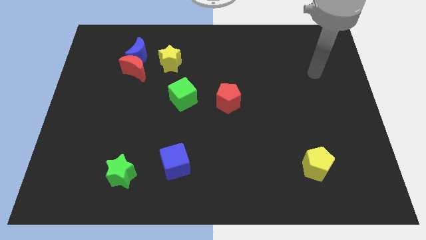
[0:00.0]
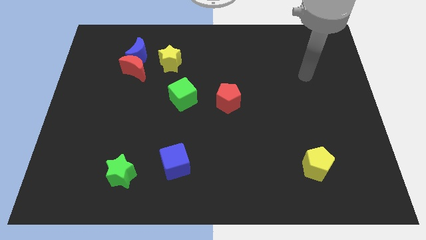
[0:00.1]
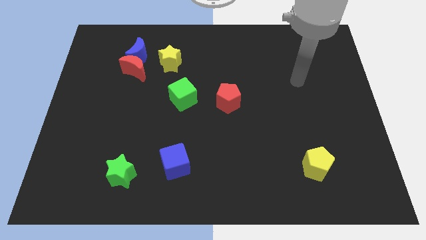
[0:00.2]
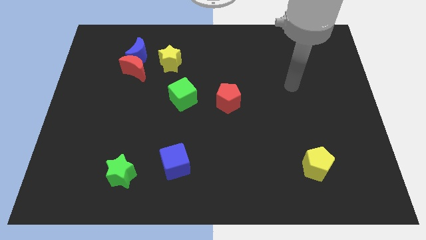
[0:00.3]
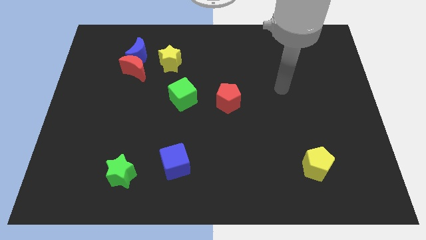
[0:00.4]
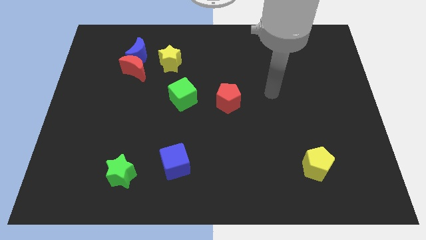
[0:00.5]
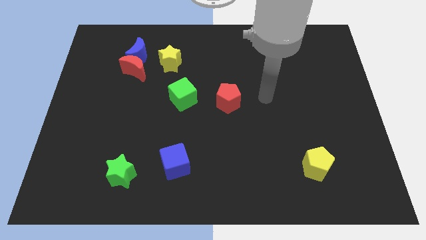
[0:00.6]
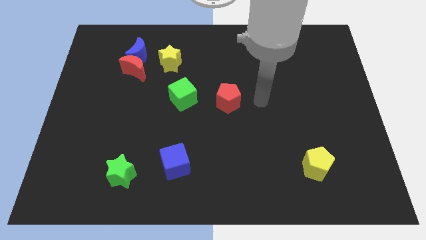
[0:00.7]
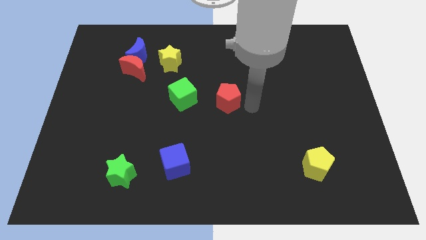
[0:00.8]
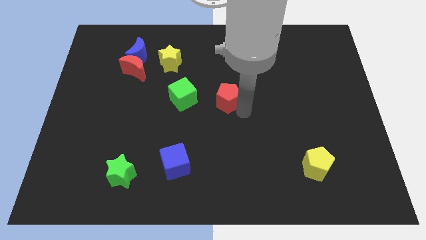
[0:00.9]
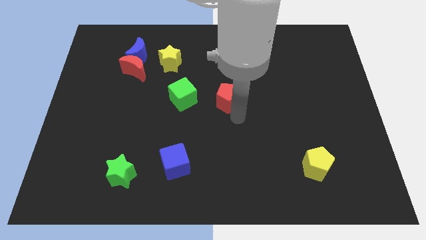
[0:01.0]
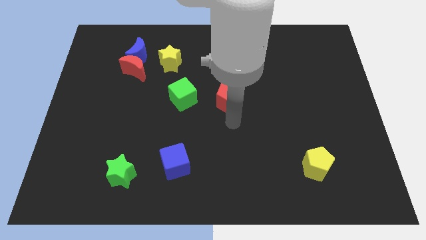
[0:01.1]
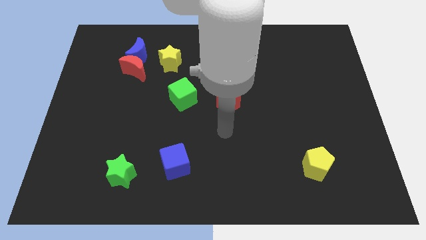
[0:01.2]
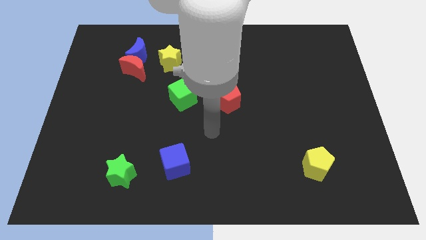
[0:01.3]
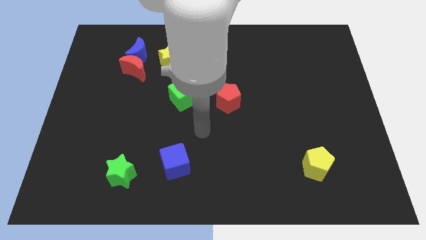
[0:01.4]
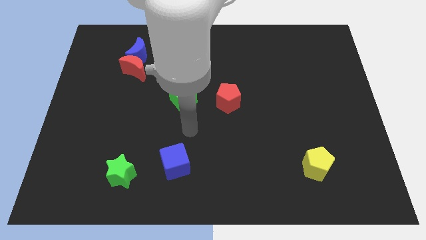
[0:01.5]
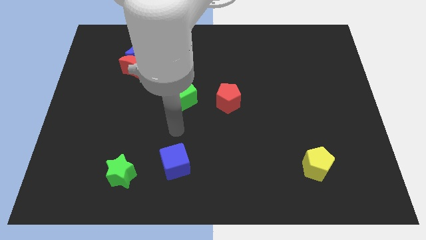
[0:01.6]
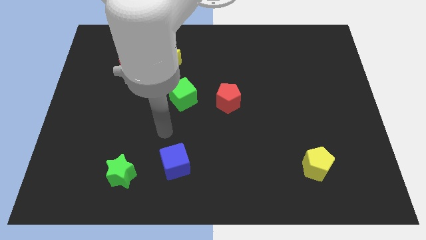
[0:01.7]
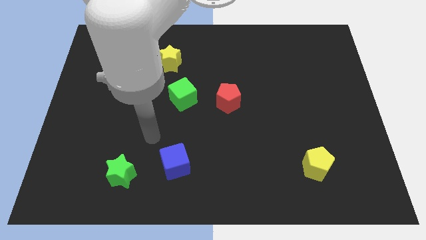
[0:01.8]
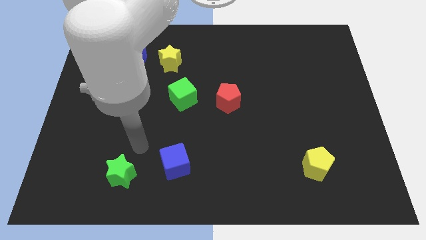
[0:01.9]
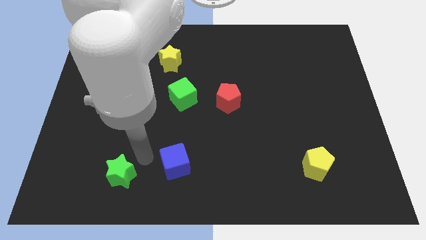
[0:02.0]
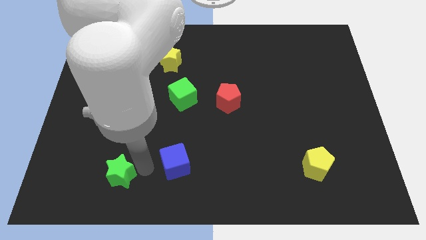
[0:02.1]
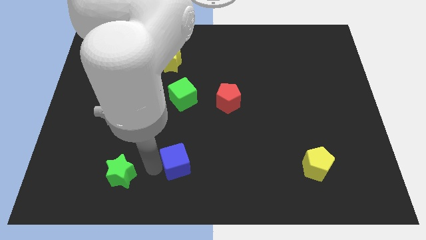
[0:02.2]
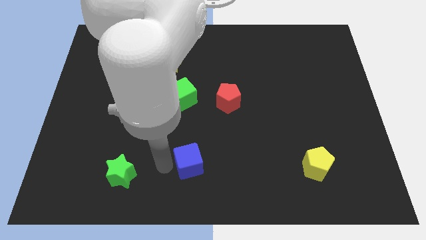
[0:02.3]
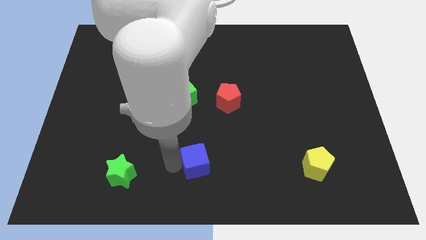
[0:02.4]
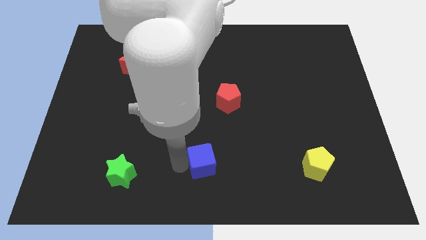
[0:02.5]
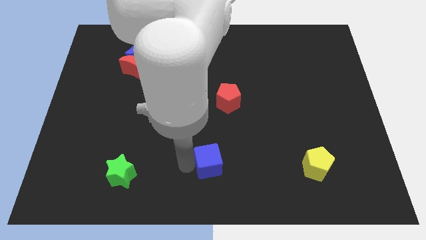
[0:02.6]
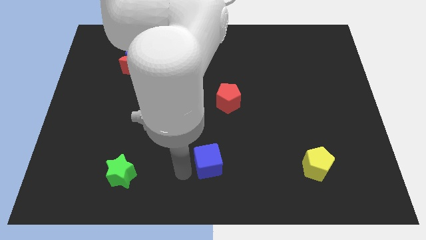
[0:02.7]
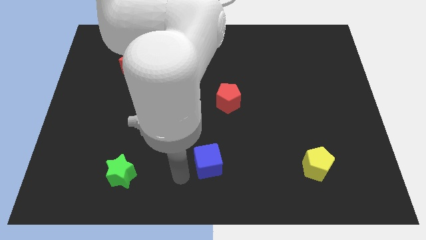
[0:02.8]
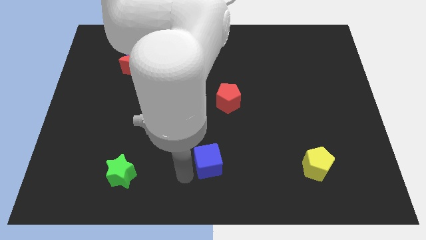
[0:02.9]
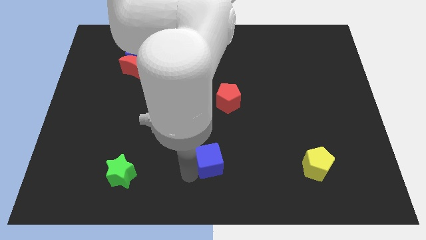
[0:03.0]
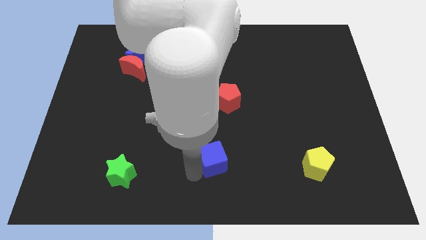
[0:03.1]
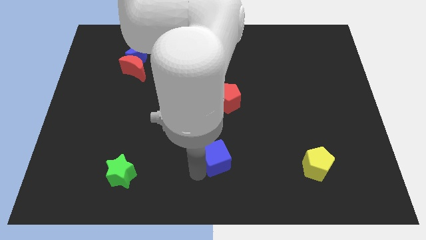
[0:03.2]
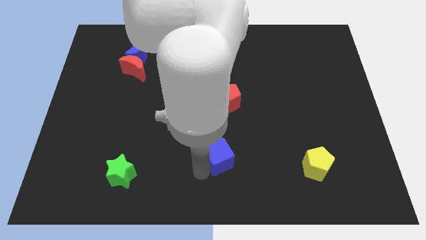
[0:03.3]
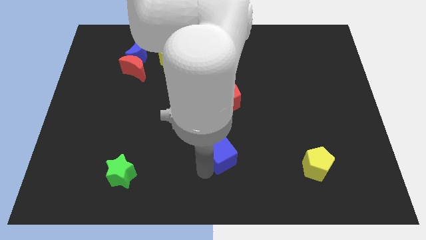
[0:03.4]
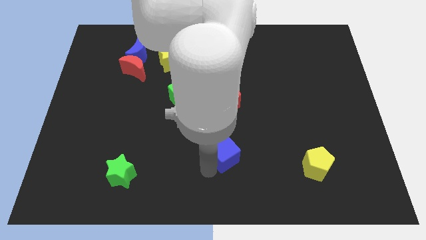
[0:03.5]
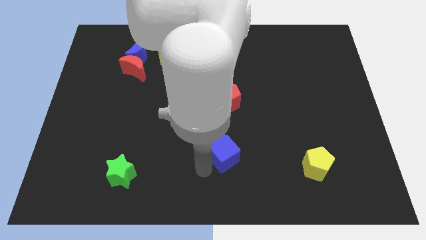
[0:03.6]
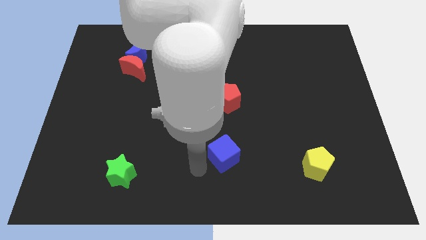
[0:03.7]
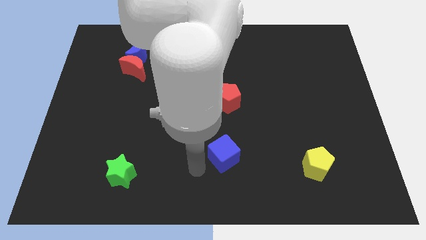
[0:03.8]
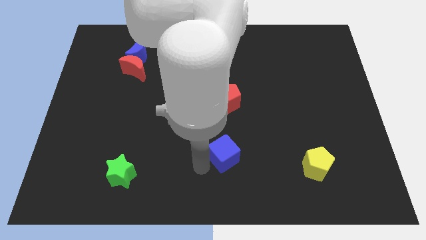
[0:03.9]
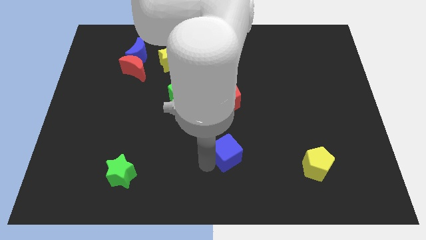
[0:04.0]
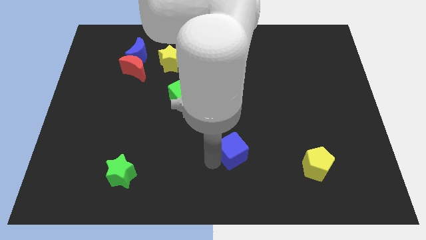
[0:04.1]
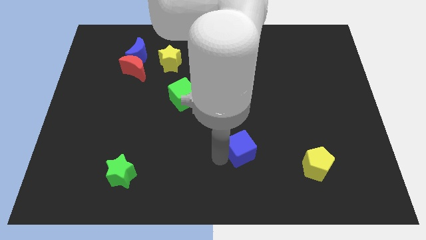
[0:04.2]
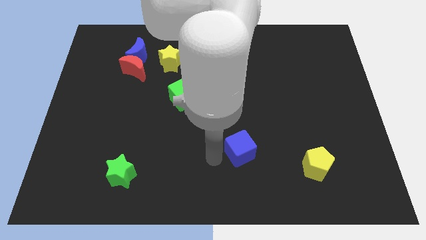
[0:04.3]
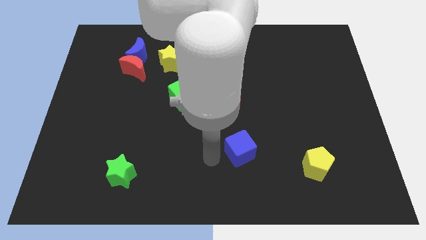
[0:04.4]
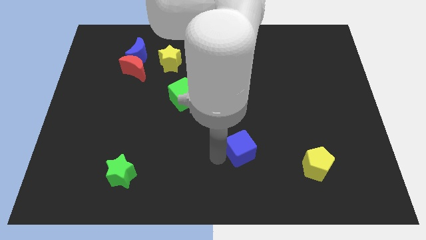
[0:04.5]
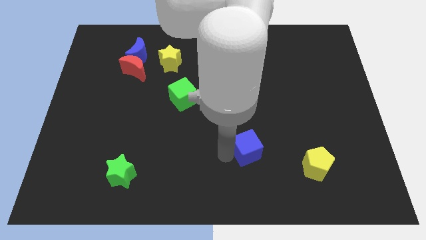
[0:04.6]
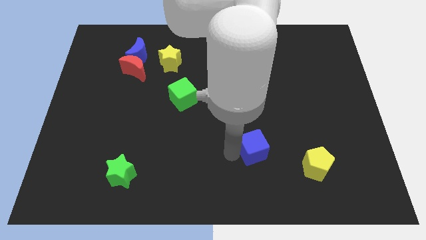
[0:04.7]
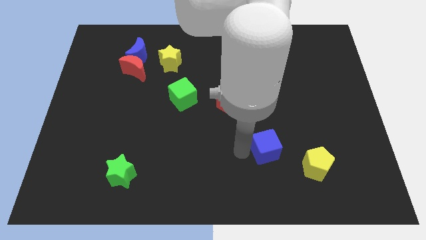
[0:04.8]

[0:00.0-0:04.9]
slide the blue cube to the top left side of the yellow pentagon

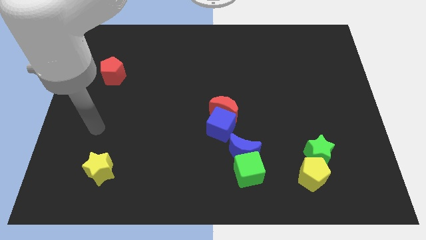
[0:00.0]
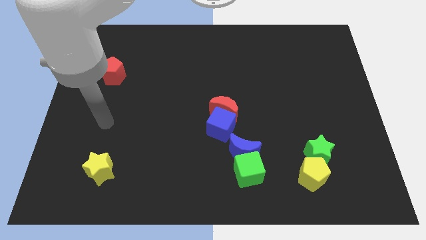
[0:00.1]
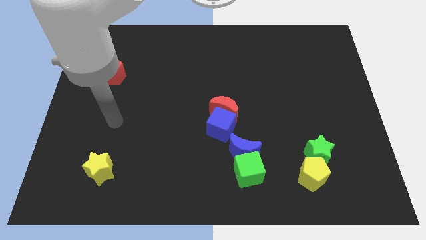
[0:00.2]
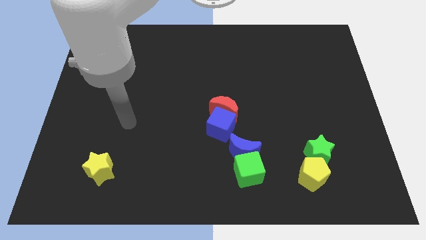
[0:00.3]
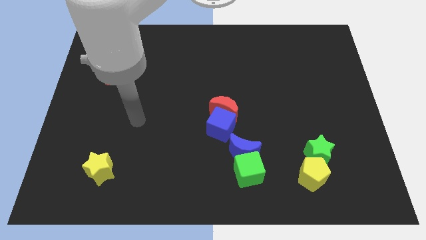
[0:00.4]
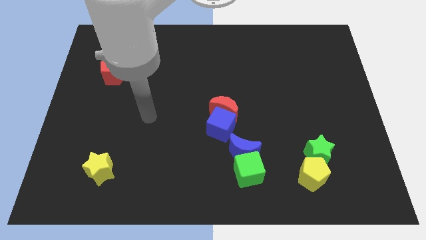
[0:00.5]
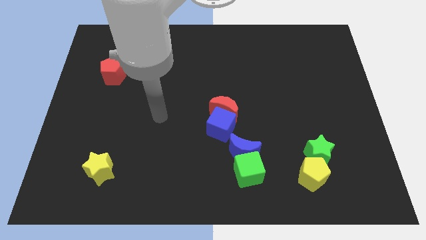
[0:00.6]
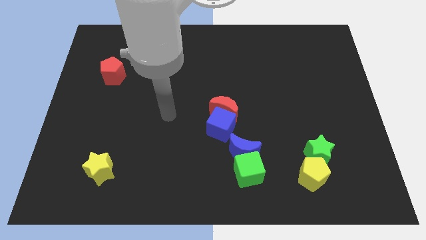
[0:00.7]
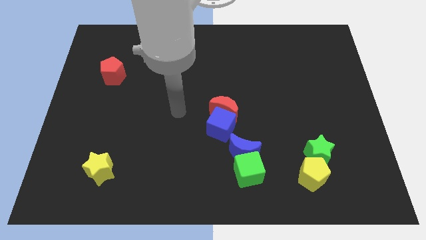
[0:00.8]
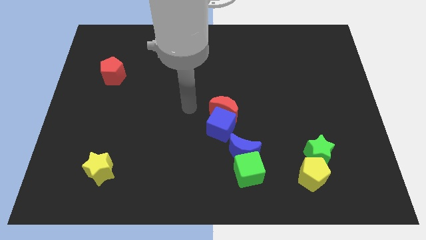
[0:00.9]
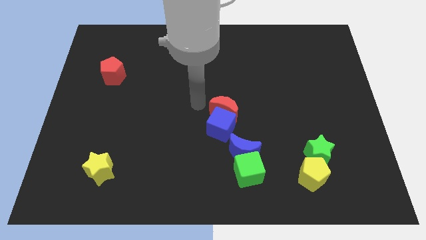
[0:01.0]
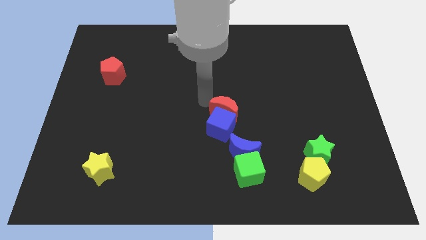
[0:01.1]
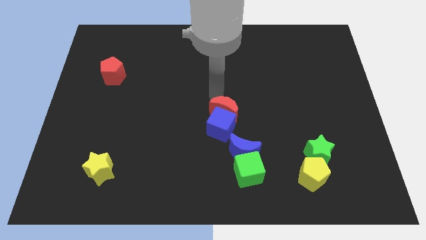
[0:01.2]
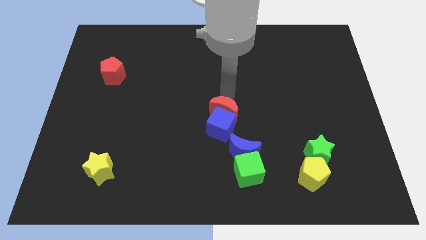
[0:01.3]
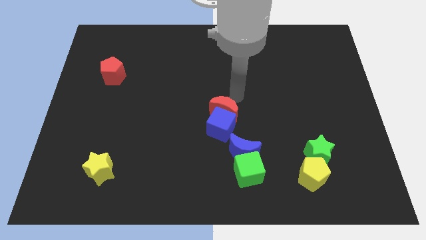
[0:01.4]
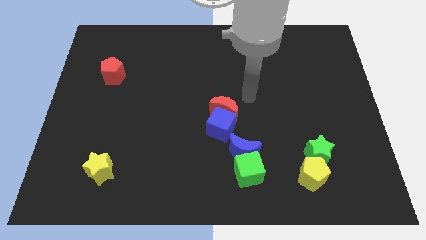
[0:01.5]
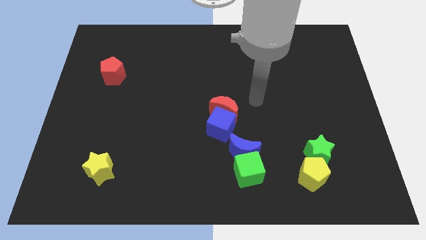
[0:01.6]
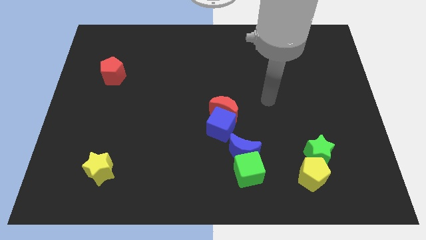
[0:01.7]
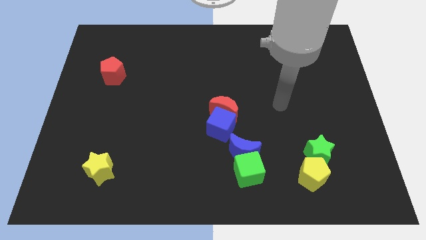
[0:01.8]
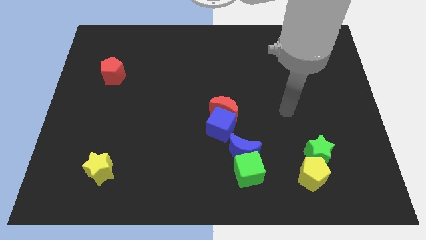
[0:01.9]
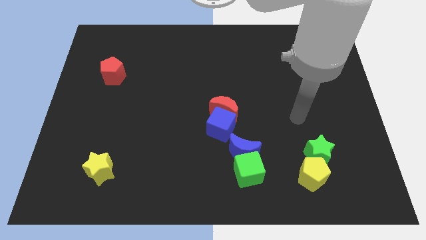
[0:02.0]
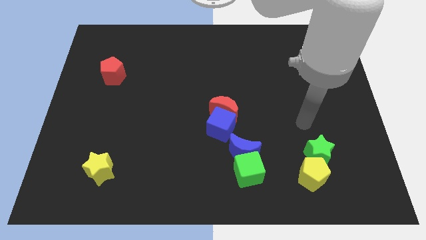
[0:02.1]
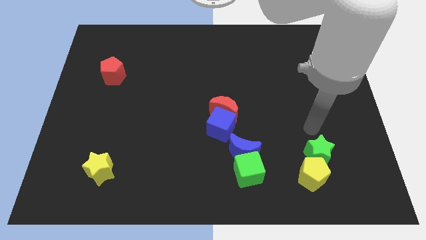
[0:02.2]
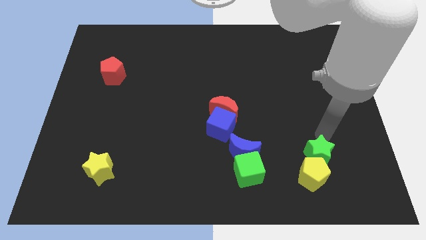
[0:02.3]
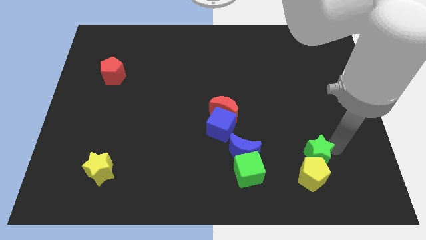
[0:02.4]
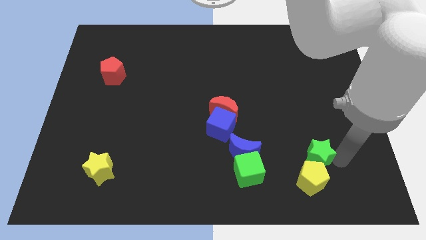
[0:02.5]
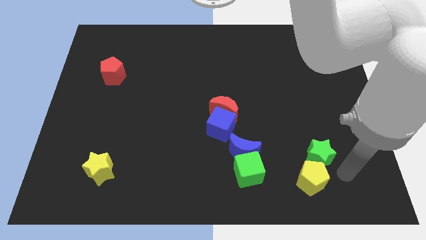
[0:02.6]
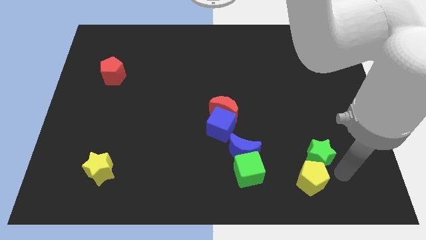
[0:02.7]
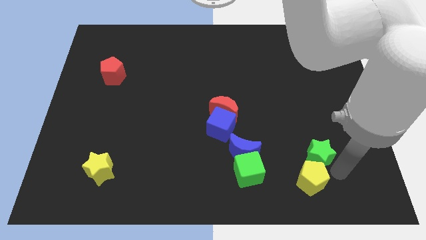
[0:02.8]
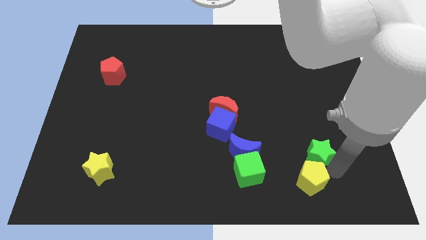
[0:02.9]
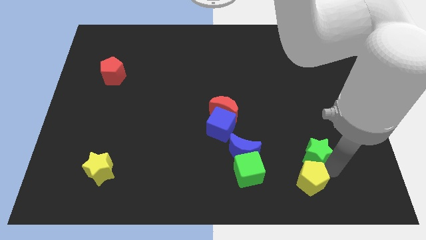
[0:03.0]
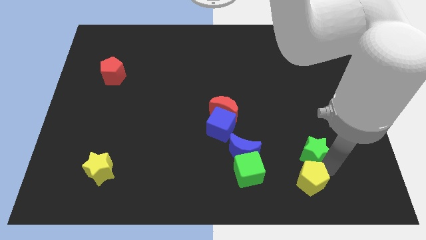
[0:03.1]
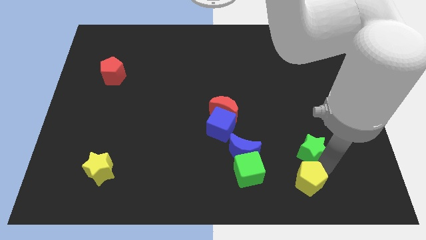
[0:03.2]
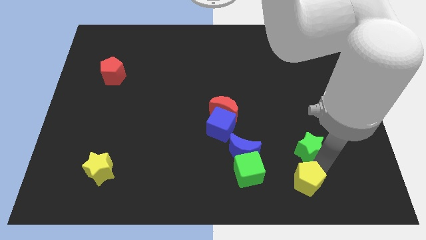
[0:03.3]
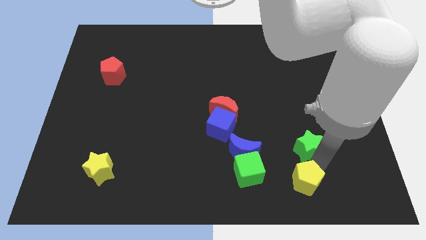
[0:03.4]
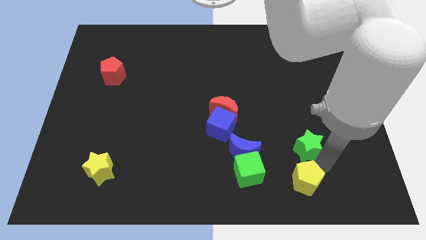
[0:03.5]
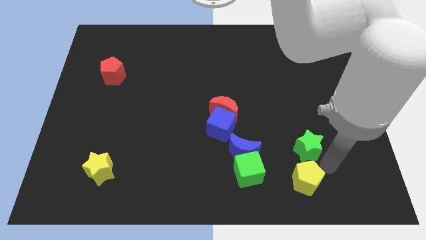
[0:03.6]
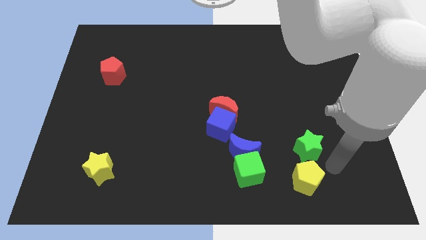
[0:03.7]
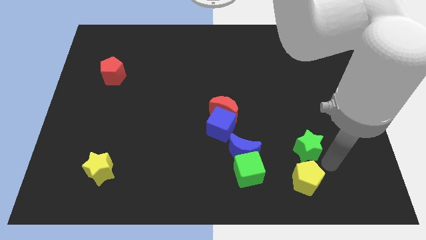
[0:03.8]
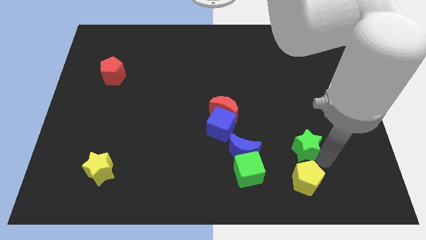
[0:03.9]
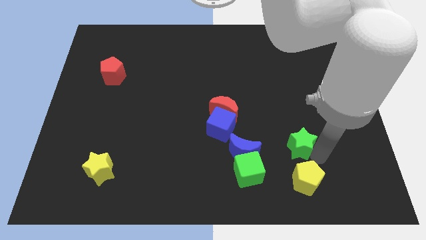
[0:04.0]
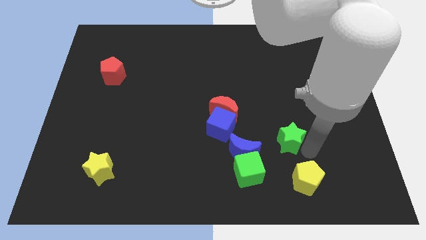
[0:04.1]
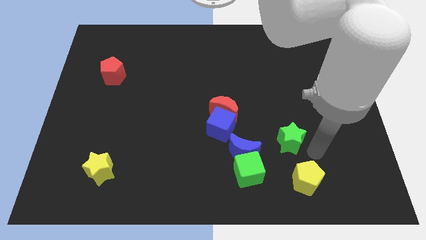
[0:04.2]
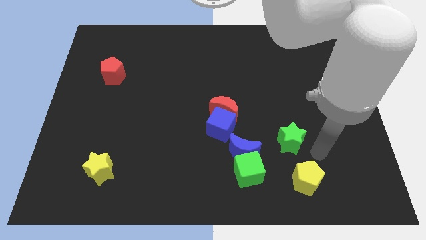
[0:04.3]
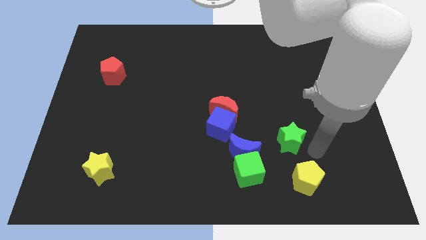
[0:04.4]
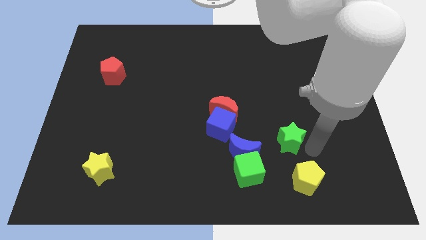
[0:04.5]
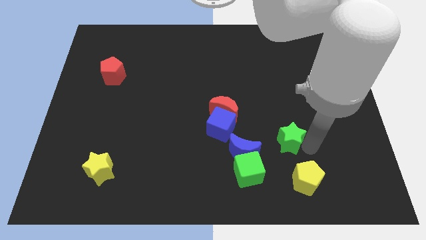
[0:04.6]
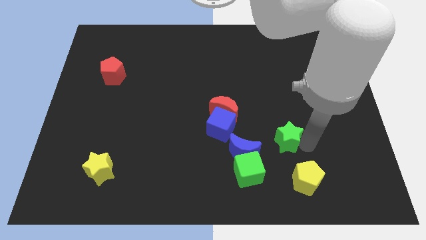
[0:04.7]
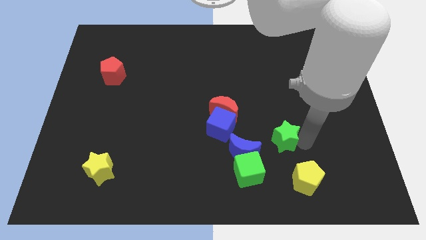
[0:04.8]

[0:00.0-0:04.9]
push the green star to the top right of the blue moon
